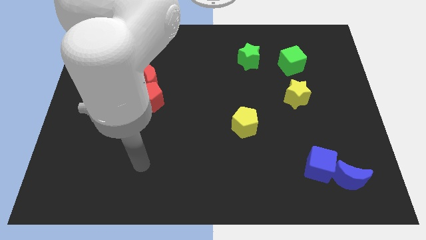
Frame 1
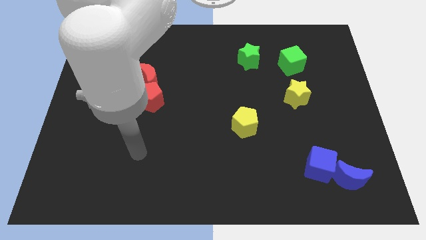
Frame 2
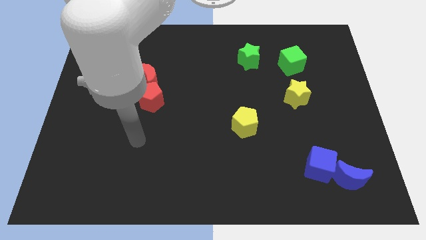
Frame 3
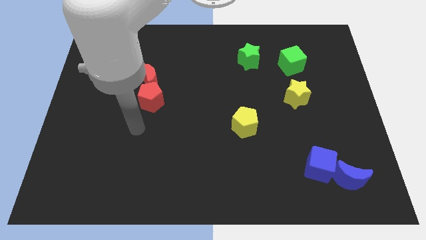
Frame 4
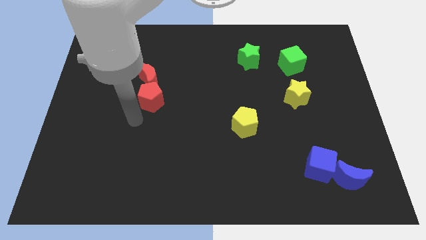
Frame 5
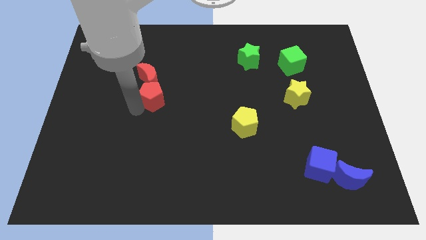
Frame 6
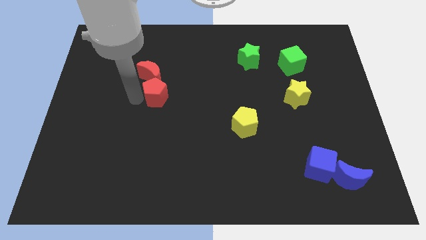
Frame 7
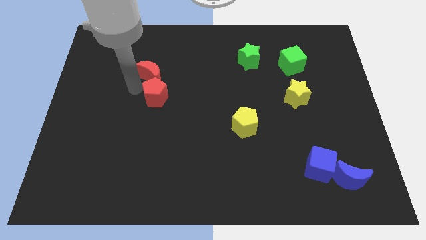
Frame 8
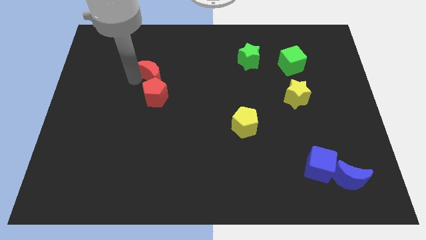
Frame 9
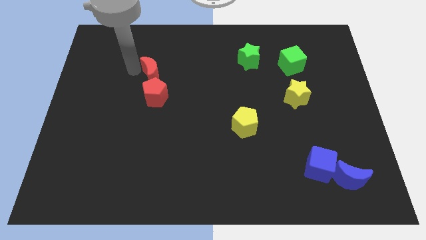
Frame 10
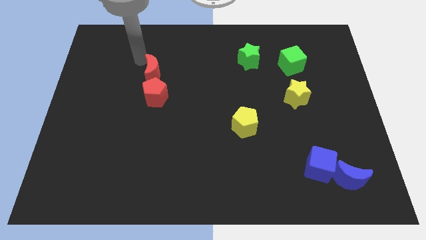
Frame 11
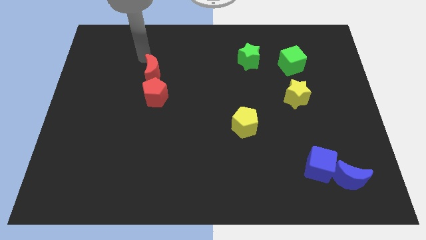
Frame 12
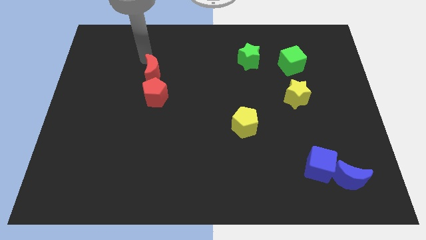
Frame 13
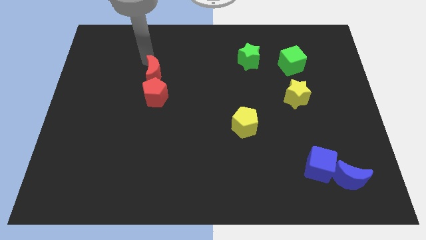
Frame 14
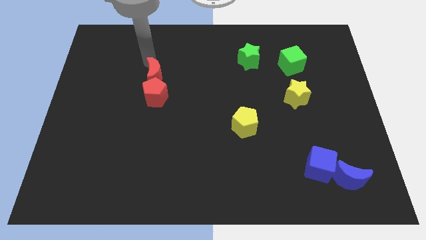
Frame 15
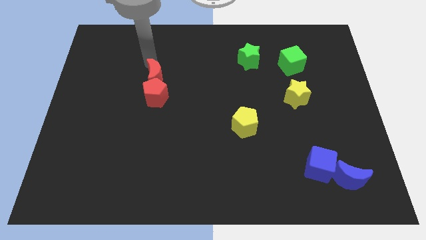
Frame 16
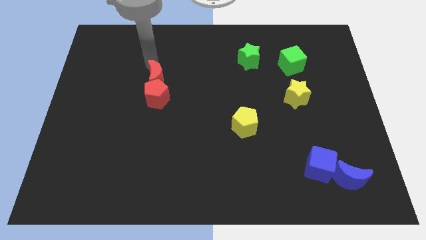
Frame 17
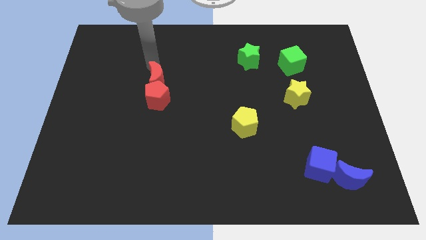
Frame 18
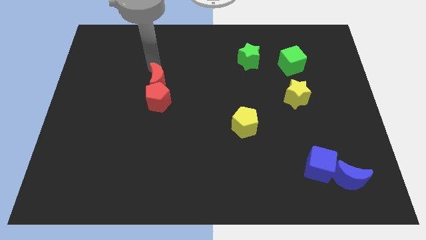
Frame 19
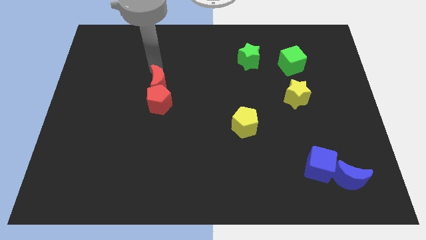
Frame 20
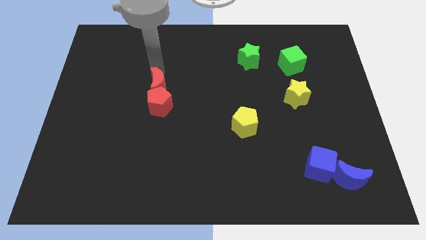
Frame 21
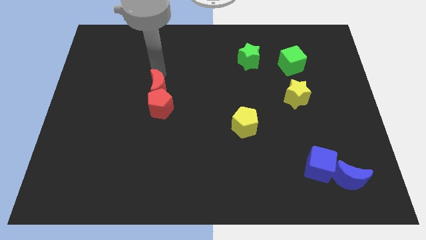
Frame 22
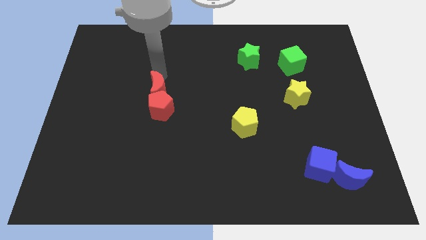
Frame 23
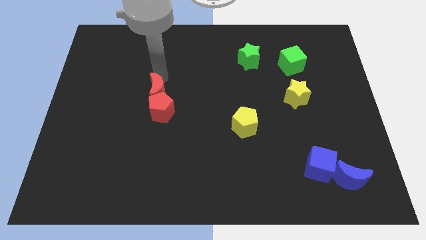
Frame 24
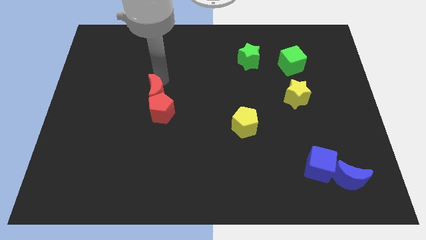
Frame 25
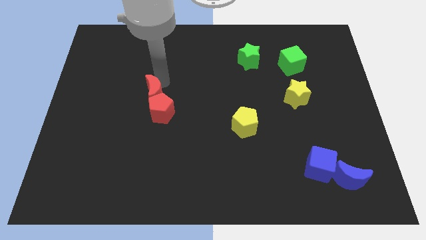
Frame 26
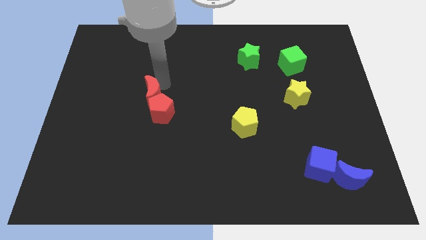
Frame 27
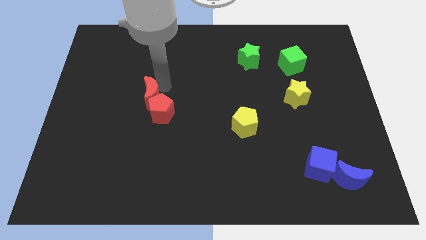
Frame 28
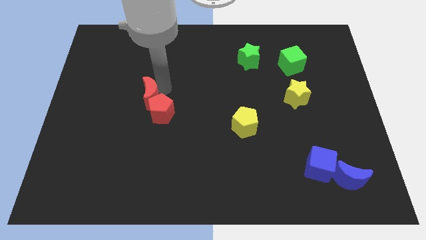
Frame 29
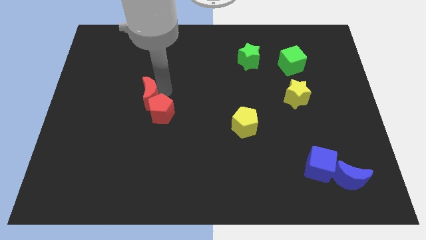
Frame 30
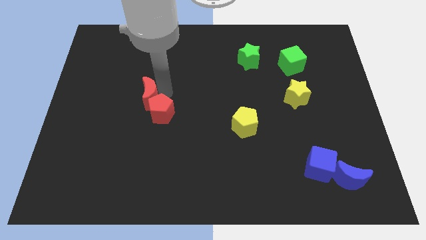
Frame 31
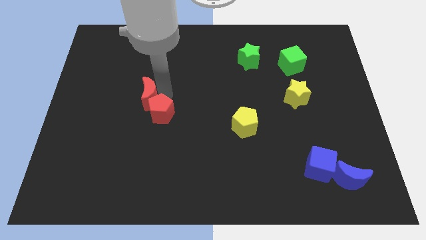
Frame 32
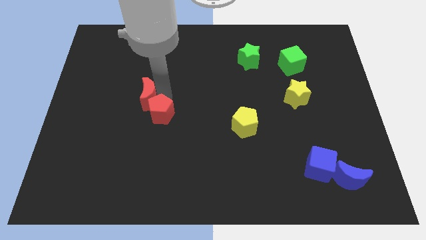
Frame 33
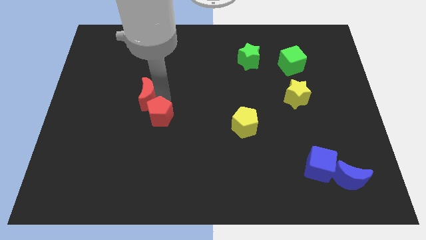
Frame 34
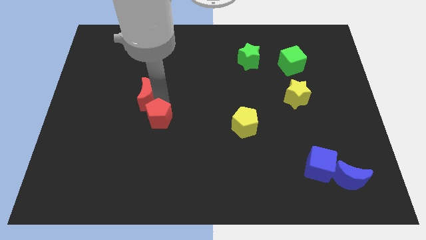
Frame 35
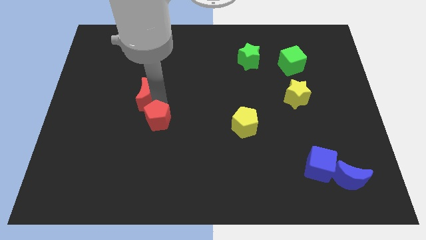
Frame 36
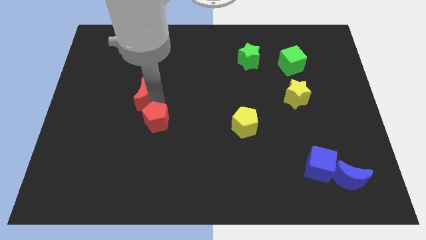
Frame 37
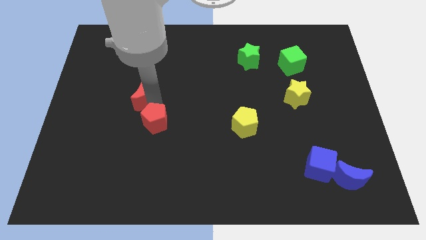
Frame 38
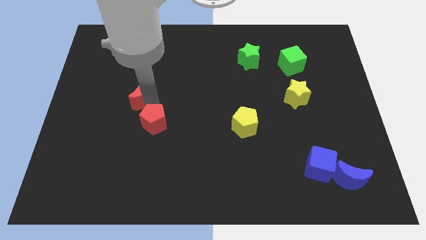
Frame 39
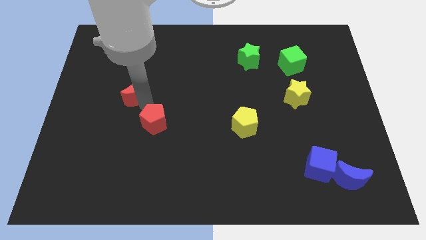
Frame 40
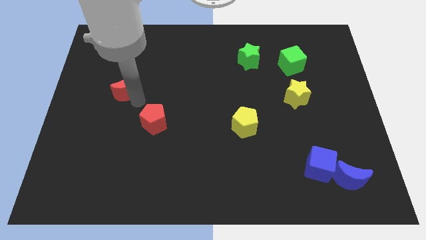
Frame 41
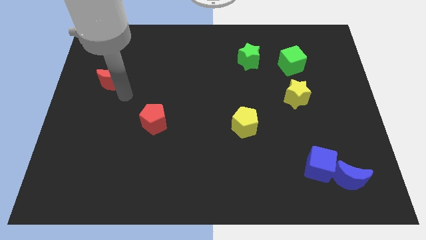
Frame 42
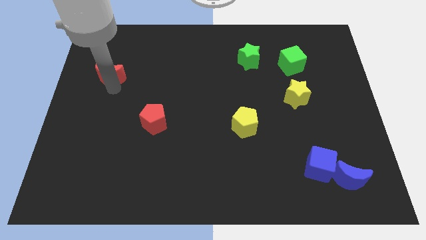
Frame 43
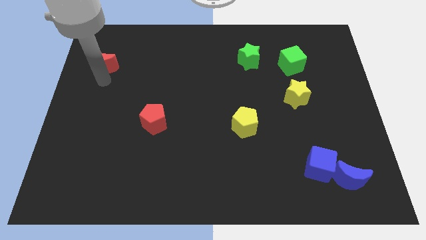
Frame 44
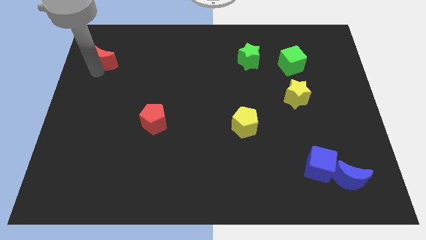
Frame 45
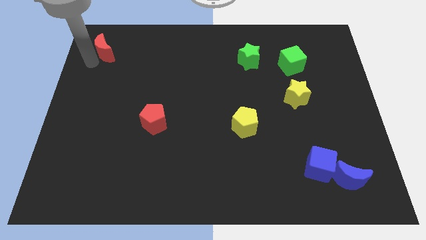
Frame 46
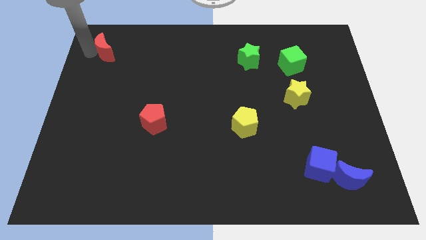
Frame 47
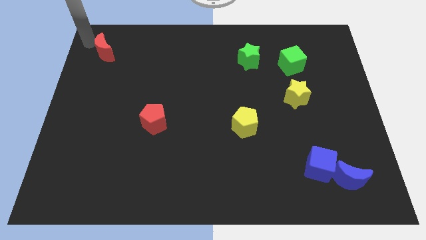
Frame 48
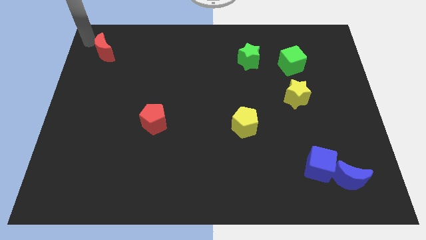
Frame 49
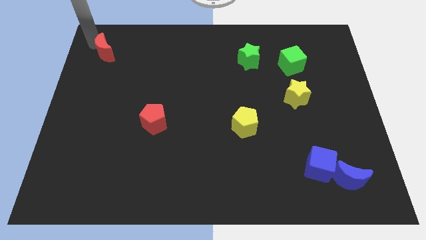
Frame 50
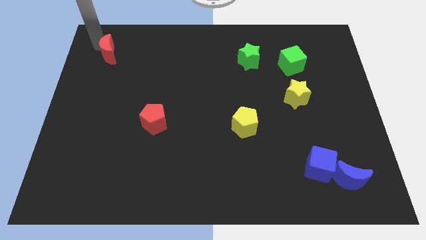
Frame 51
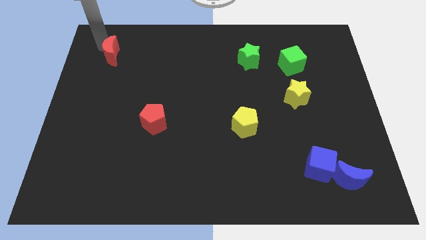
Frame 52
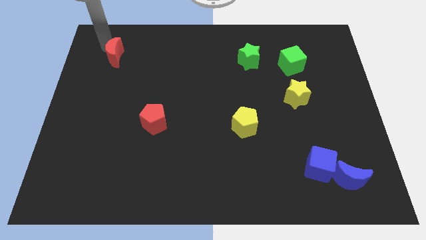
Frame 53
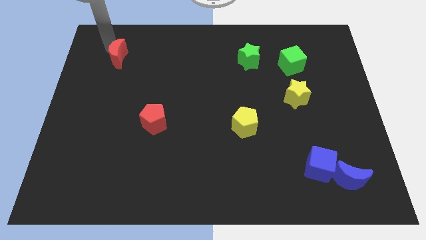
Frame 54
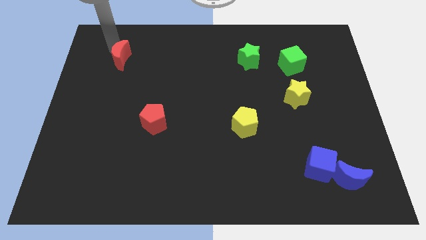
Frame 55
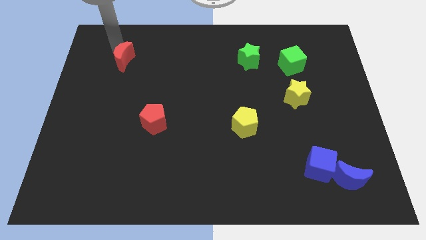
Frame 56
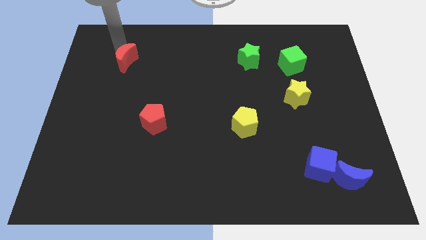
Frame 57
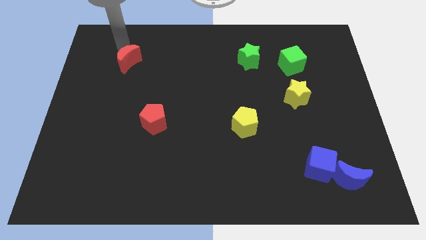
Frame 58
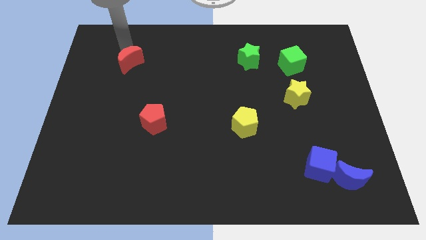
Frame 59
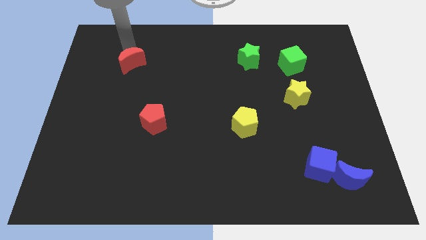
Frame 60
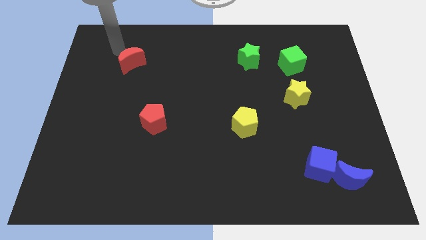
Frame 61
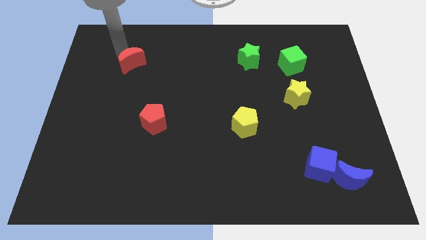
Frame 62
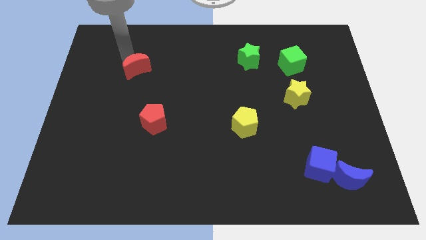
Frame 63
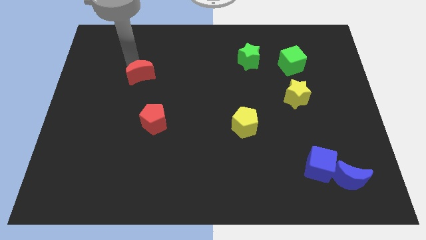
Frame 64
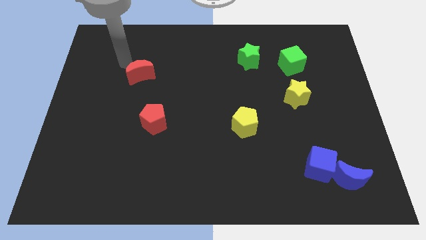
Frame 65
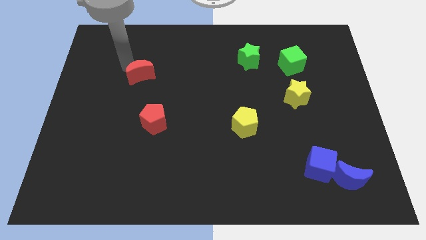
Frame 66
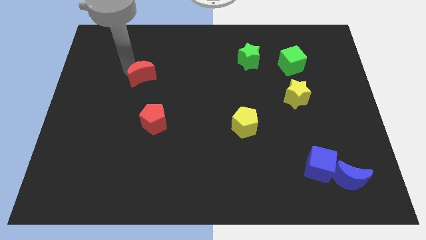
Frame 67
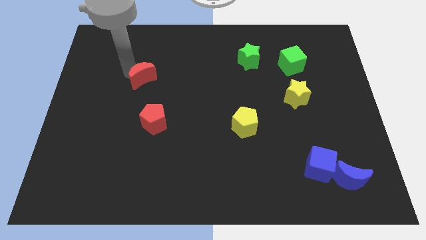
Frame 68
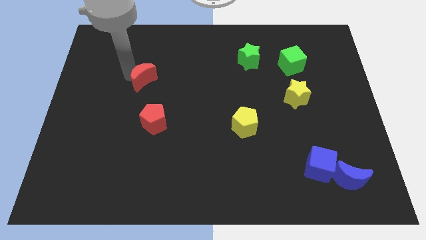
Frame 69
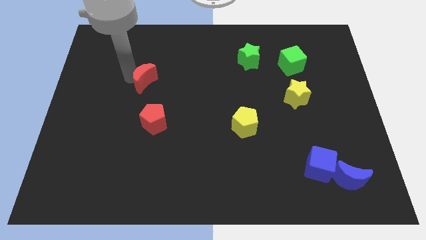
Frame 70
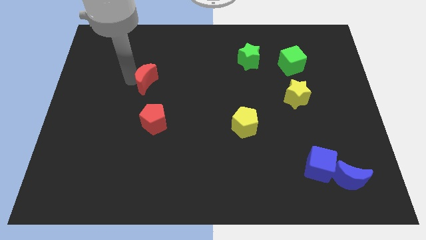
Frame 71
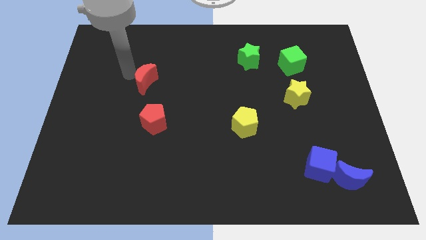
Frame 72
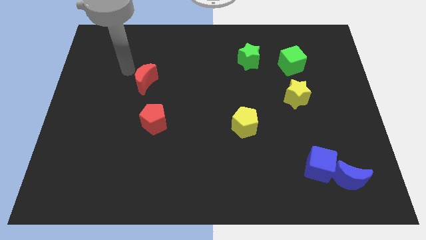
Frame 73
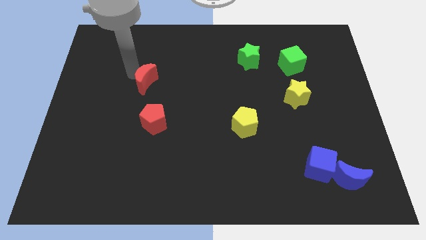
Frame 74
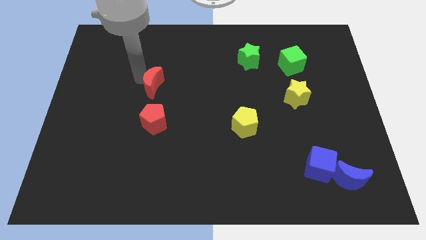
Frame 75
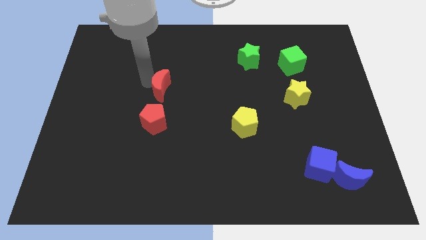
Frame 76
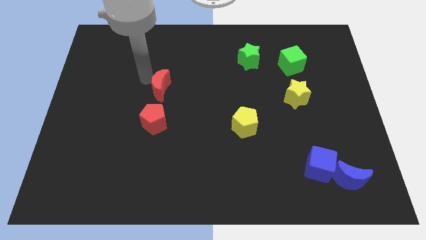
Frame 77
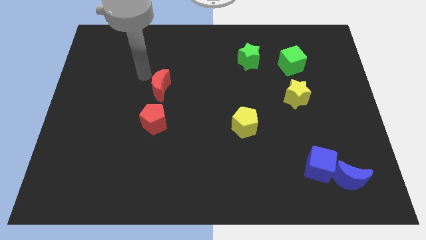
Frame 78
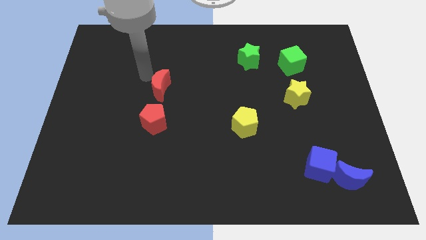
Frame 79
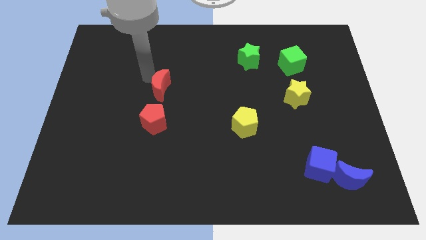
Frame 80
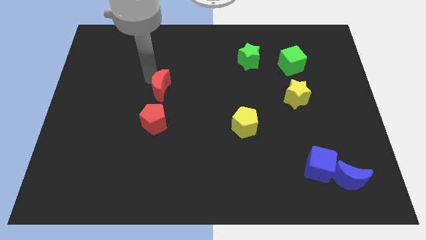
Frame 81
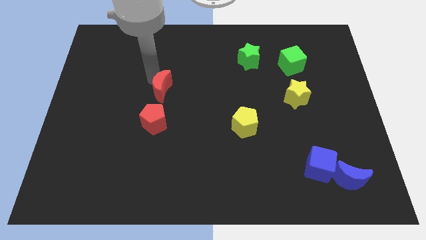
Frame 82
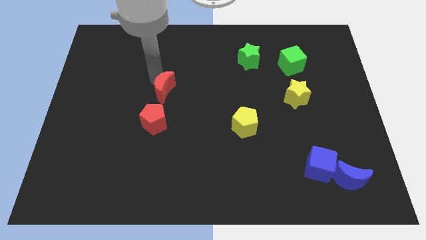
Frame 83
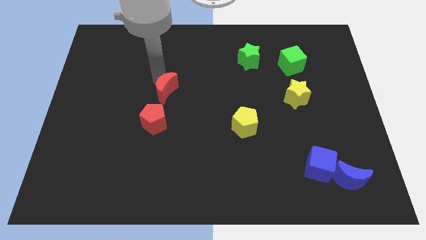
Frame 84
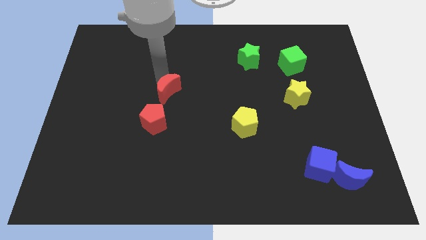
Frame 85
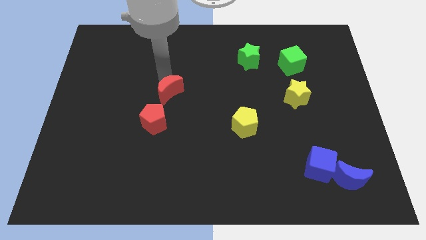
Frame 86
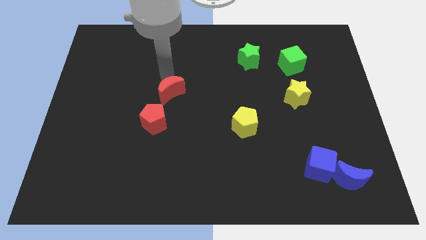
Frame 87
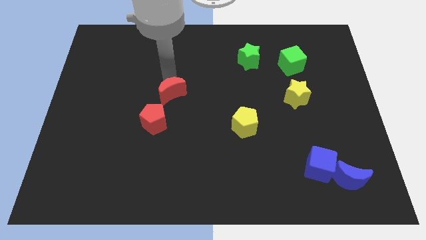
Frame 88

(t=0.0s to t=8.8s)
slide the red moon diagonally downwards and right a little bit
